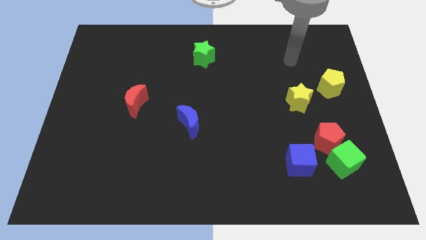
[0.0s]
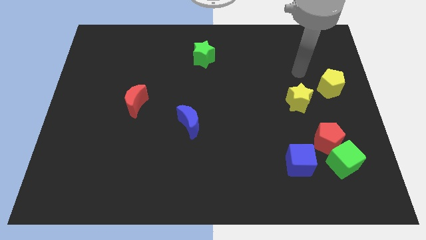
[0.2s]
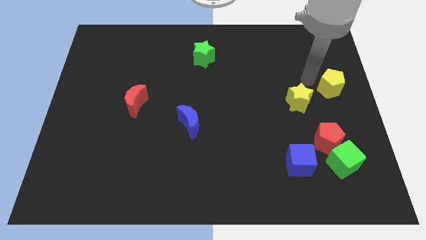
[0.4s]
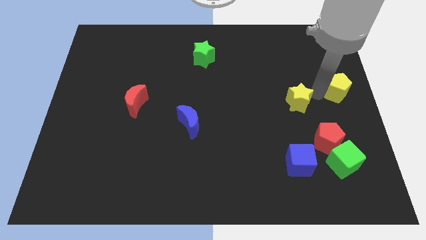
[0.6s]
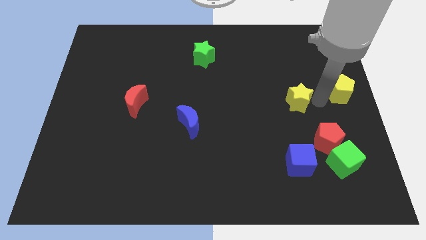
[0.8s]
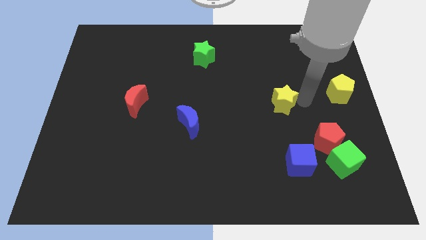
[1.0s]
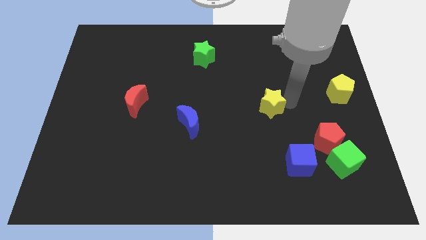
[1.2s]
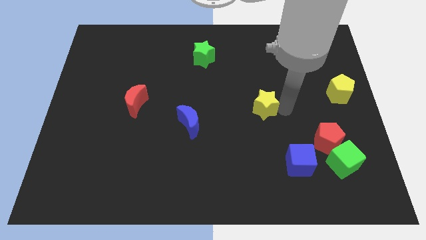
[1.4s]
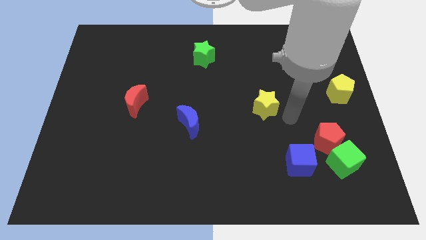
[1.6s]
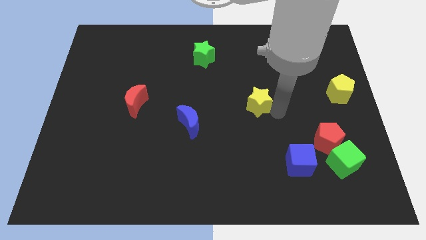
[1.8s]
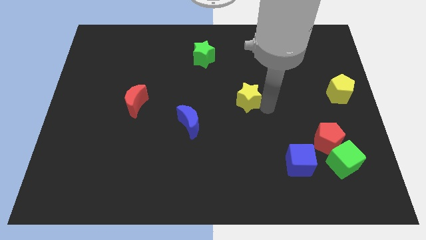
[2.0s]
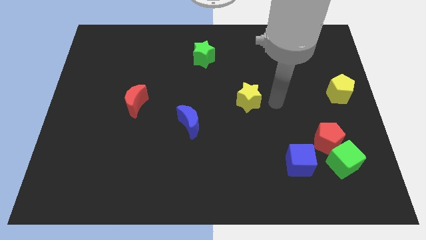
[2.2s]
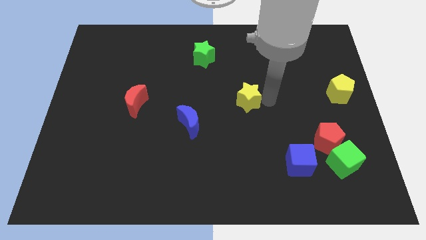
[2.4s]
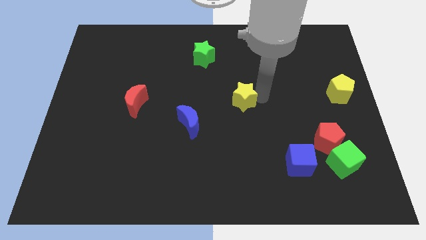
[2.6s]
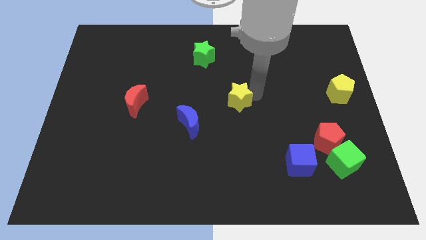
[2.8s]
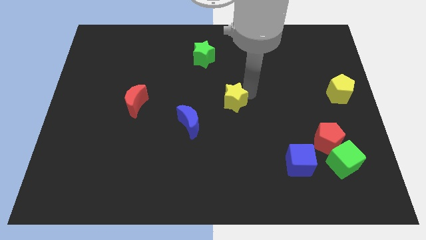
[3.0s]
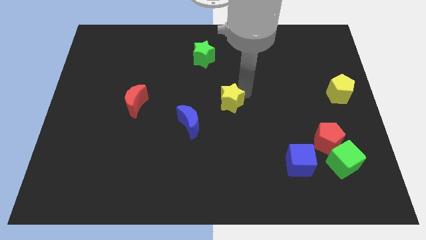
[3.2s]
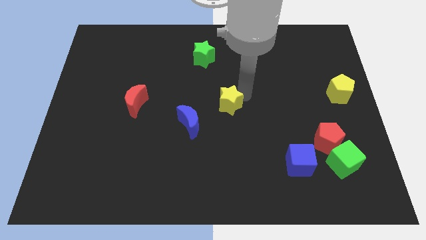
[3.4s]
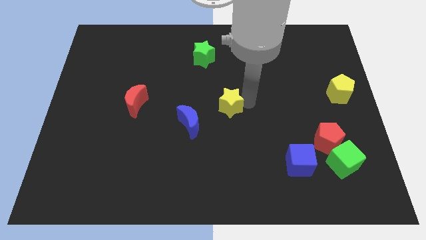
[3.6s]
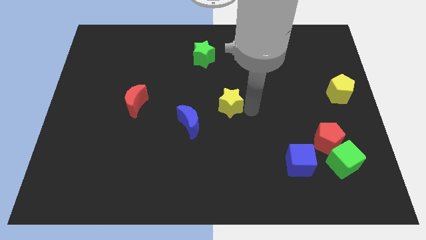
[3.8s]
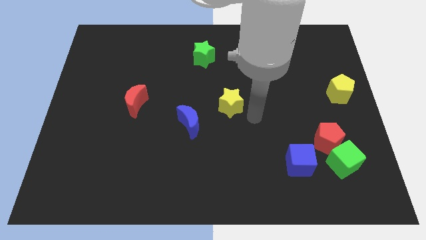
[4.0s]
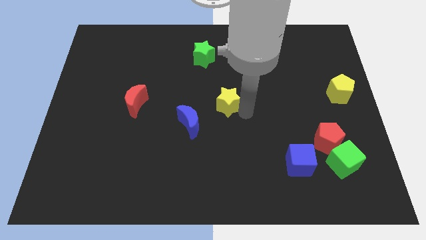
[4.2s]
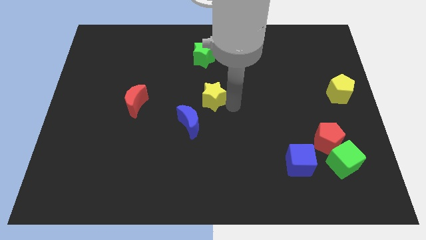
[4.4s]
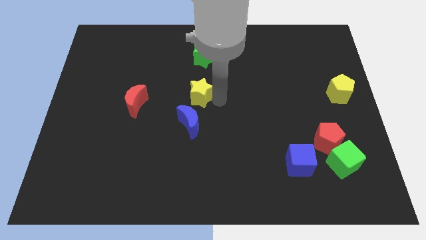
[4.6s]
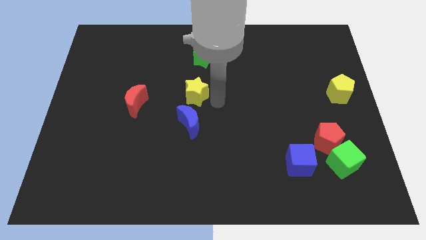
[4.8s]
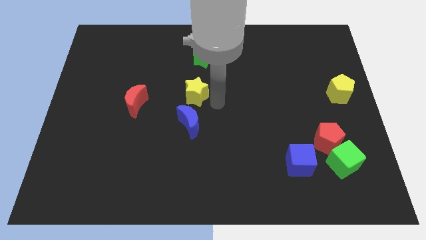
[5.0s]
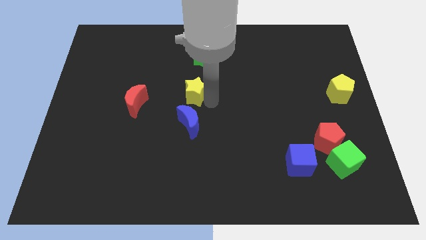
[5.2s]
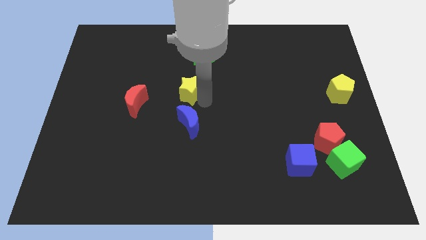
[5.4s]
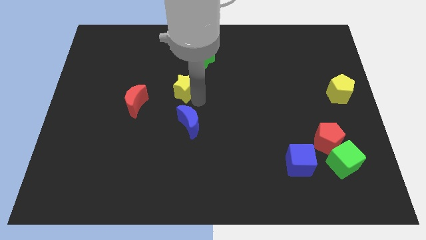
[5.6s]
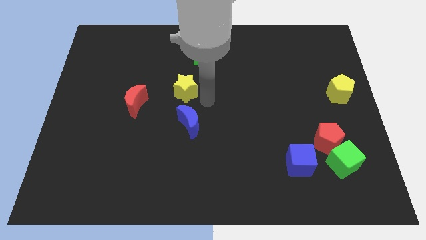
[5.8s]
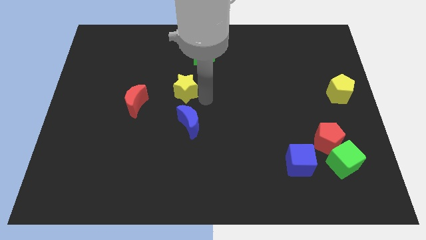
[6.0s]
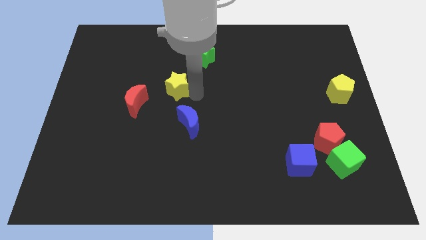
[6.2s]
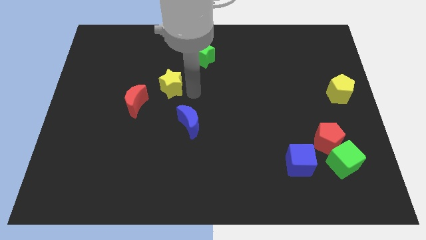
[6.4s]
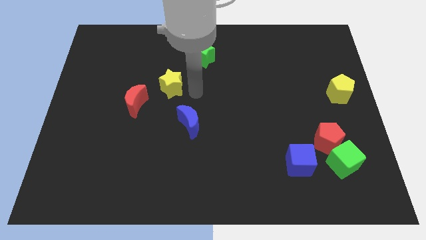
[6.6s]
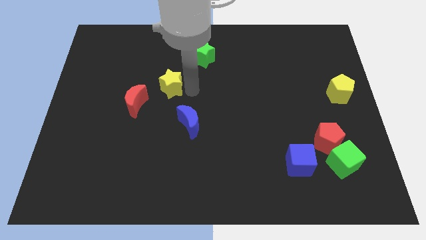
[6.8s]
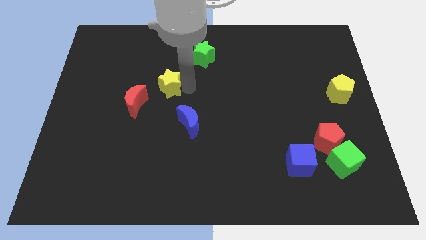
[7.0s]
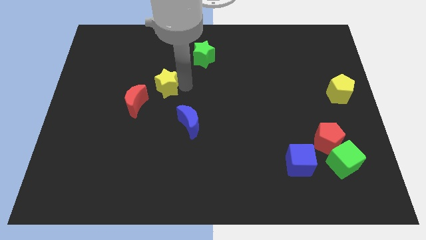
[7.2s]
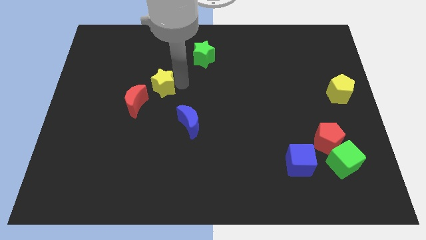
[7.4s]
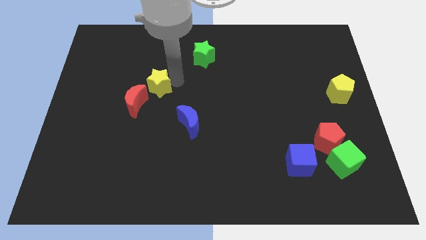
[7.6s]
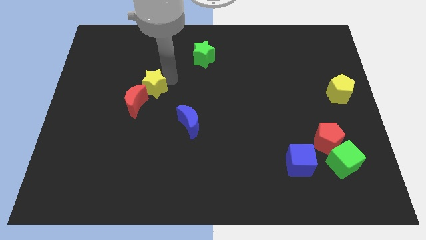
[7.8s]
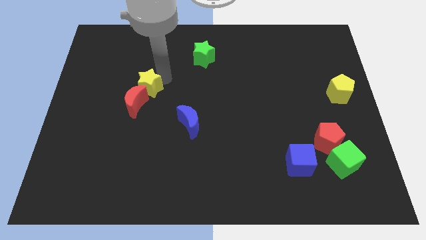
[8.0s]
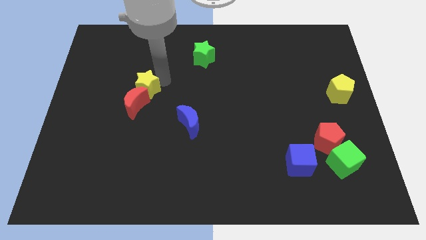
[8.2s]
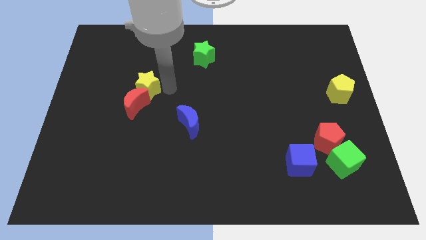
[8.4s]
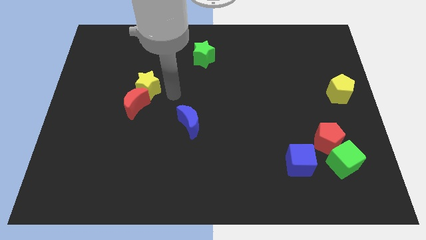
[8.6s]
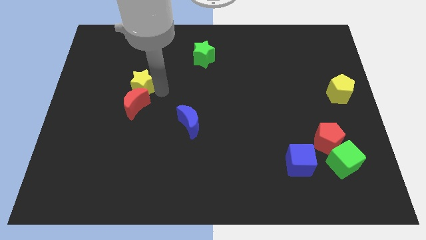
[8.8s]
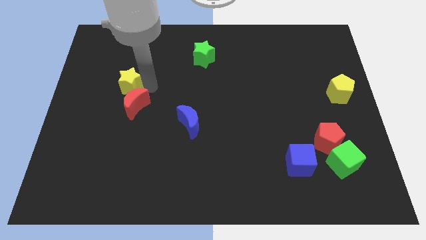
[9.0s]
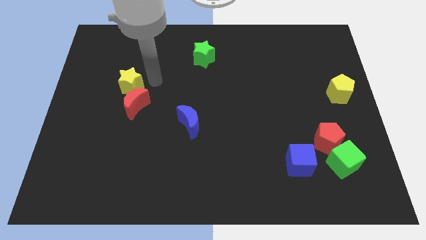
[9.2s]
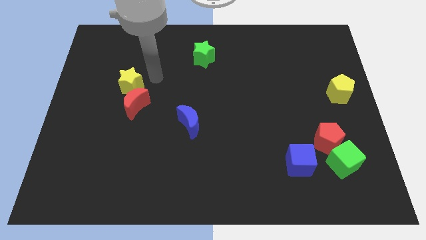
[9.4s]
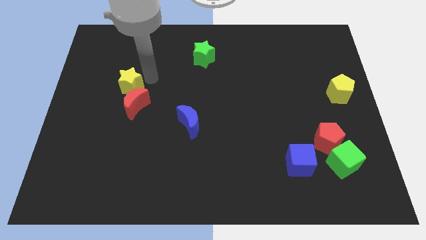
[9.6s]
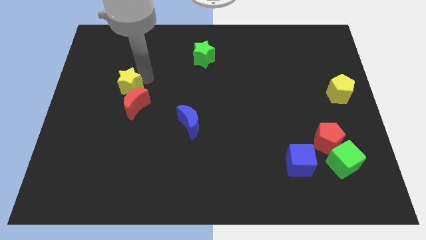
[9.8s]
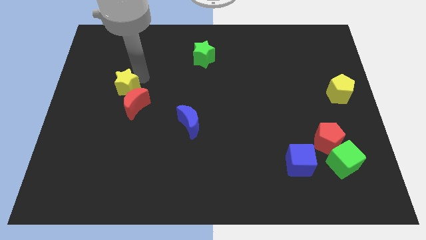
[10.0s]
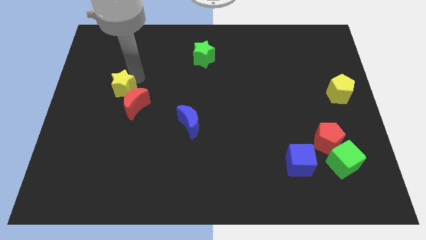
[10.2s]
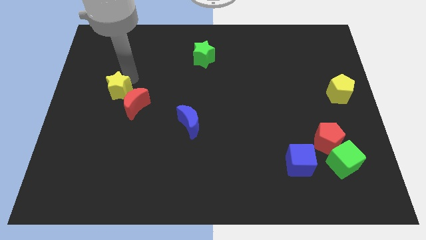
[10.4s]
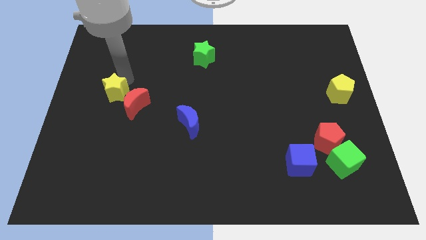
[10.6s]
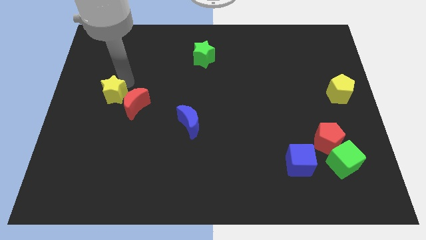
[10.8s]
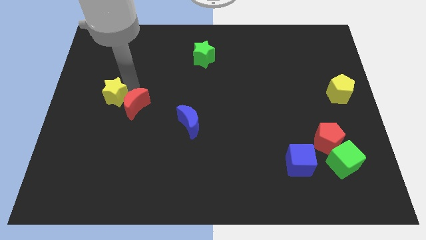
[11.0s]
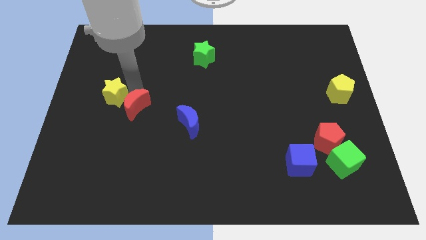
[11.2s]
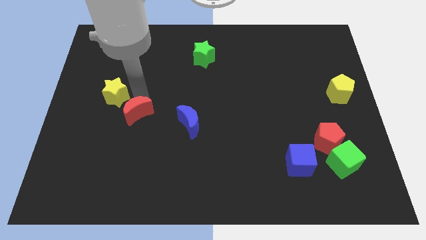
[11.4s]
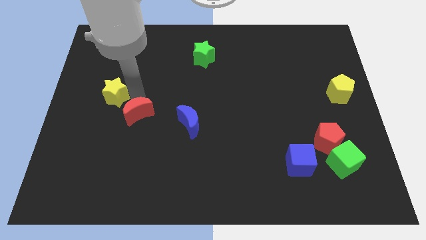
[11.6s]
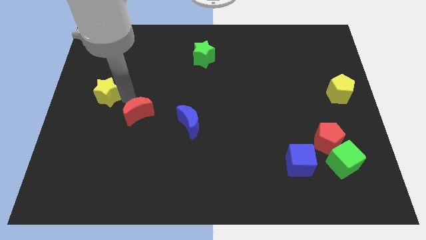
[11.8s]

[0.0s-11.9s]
push the yellow star to the center left
